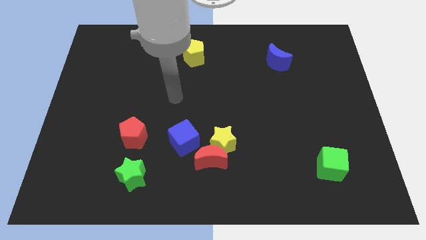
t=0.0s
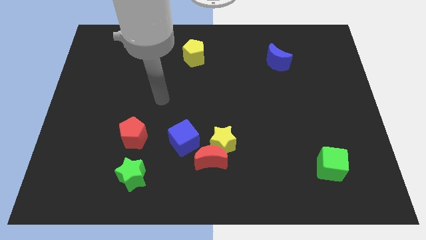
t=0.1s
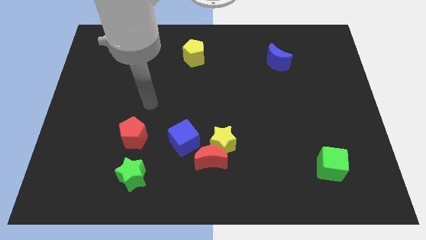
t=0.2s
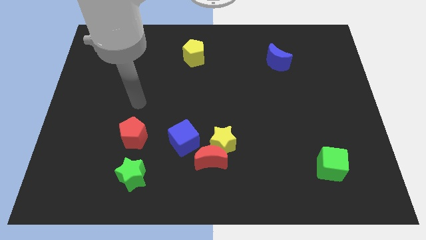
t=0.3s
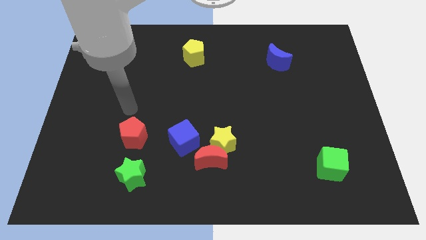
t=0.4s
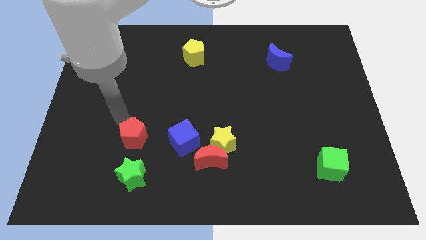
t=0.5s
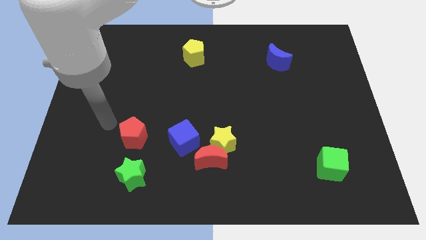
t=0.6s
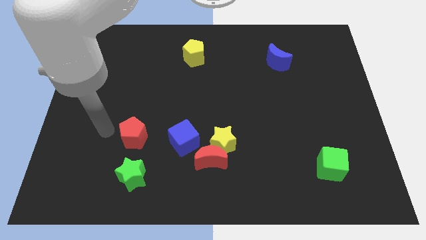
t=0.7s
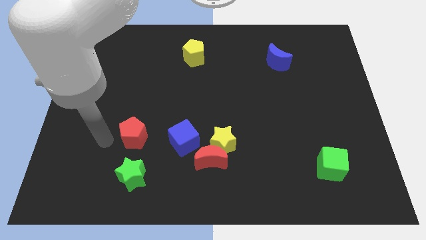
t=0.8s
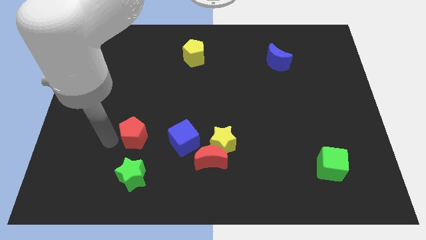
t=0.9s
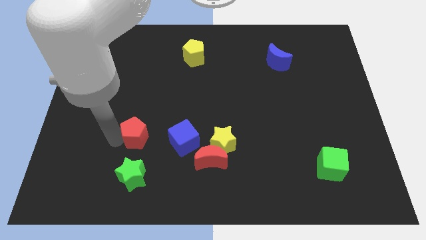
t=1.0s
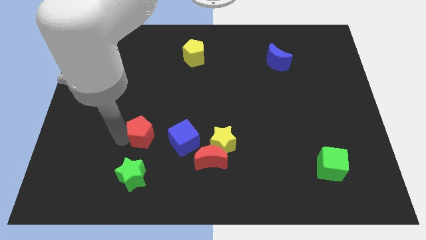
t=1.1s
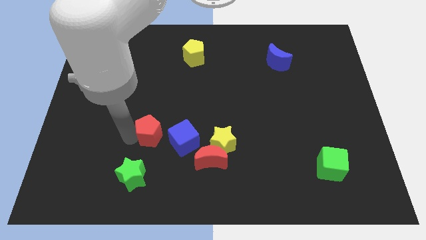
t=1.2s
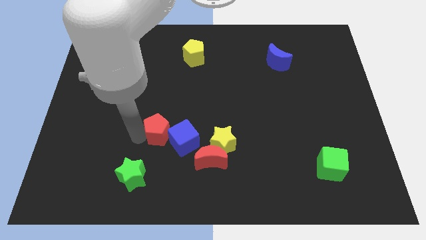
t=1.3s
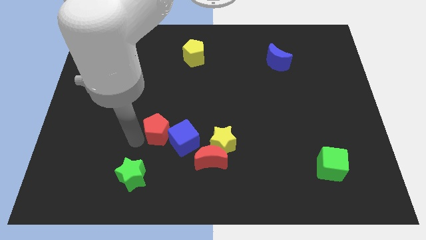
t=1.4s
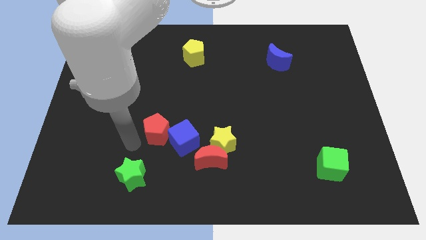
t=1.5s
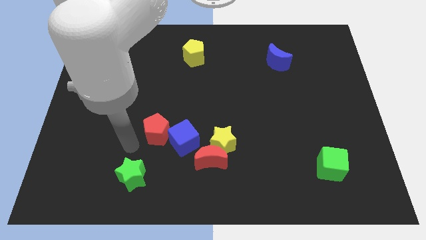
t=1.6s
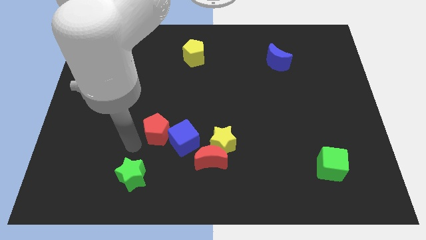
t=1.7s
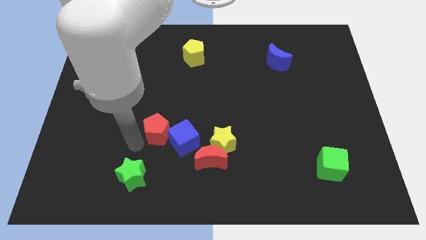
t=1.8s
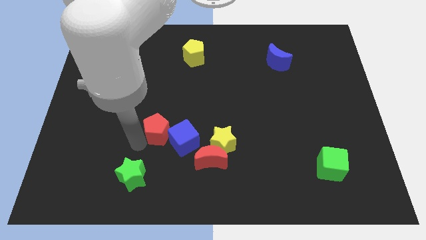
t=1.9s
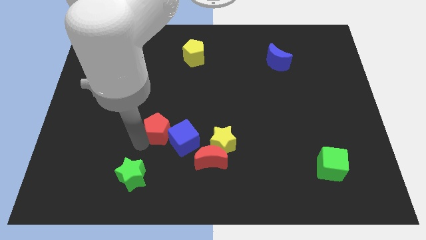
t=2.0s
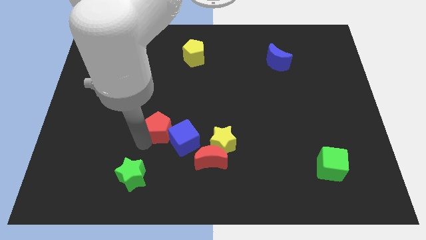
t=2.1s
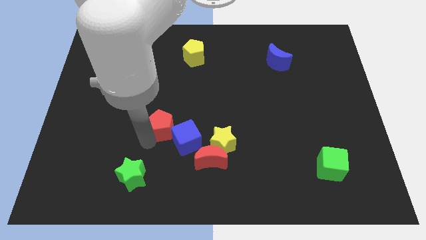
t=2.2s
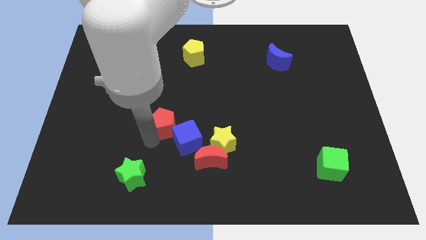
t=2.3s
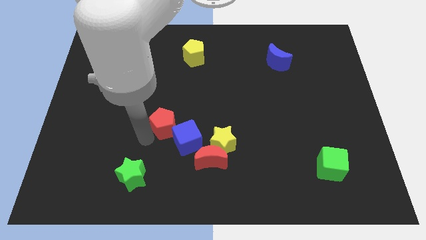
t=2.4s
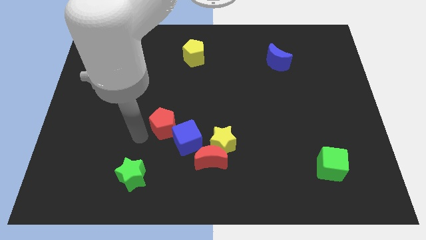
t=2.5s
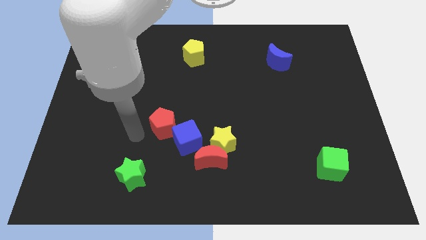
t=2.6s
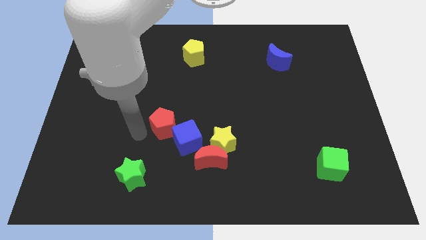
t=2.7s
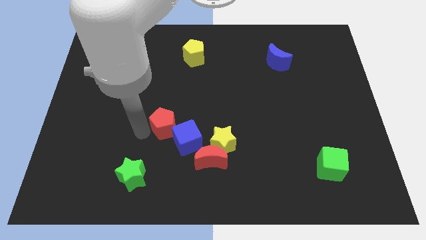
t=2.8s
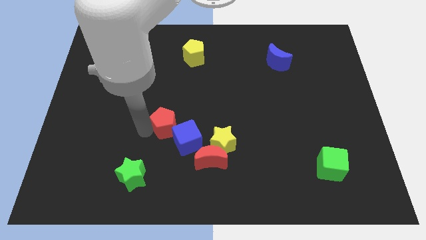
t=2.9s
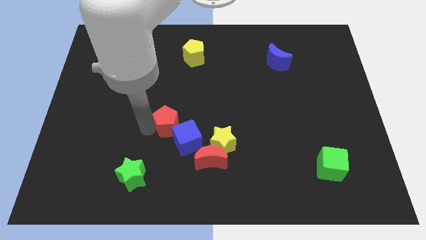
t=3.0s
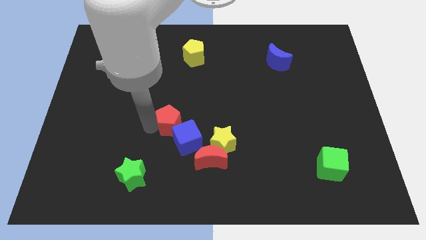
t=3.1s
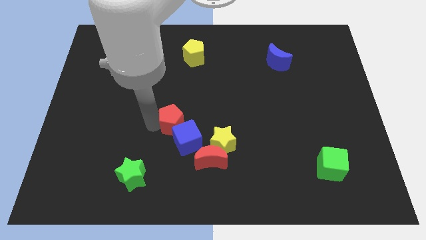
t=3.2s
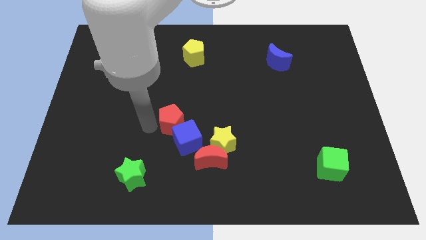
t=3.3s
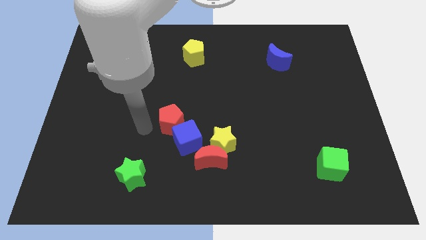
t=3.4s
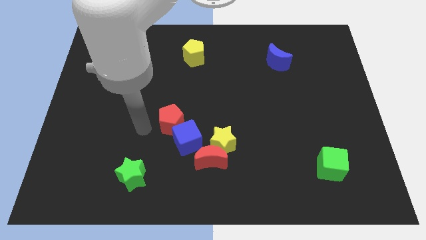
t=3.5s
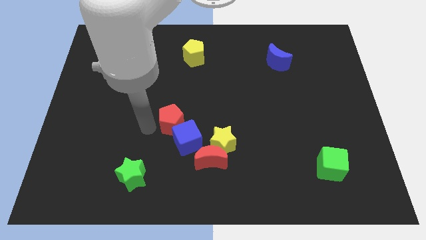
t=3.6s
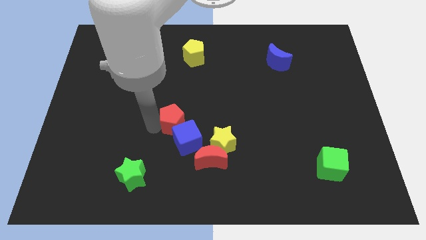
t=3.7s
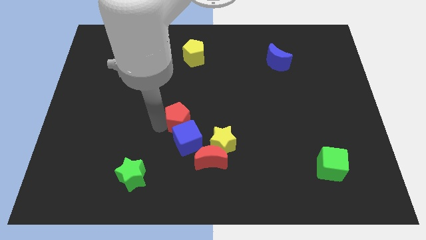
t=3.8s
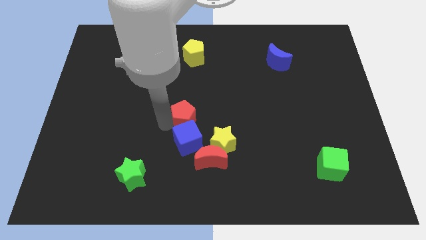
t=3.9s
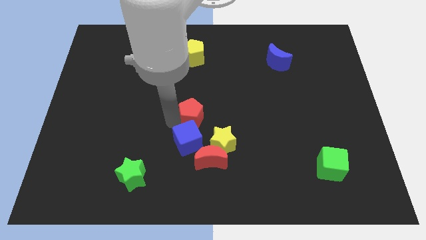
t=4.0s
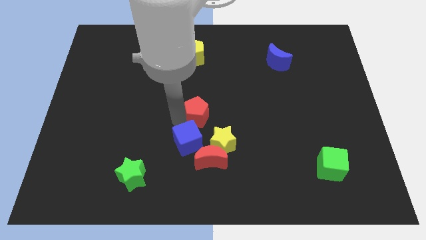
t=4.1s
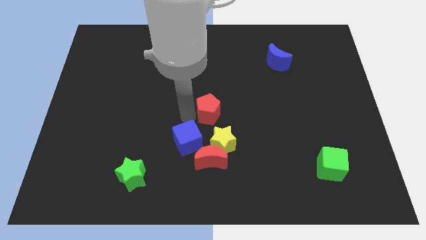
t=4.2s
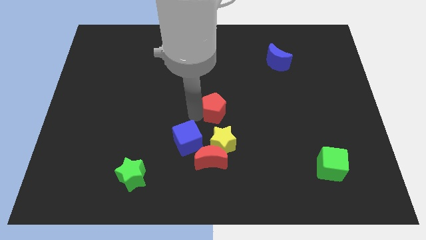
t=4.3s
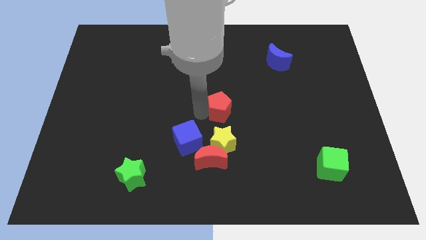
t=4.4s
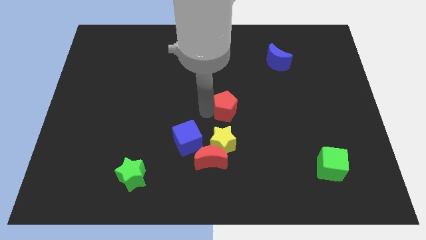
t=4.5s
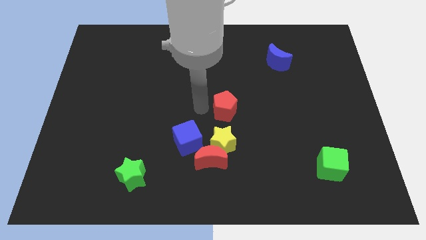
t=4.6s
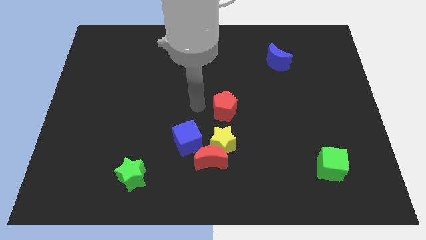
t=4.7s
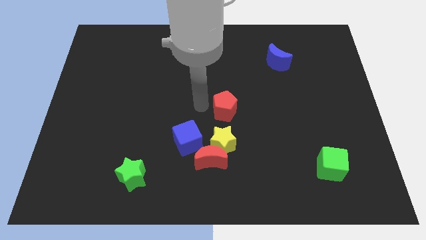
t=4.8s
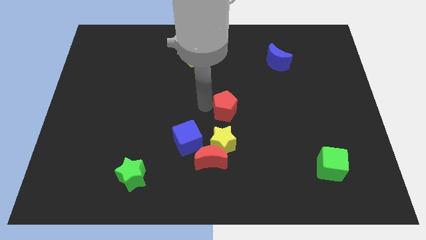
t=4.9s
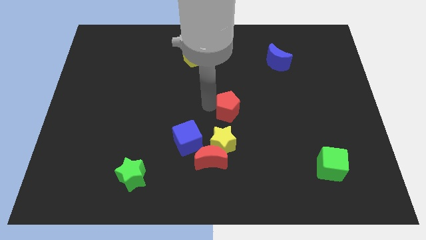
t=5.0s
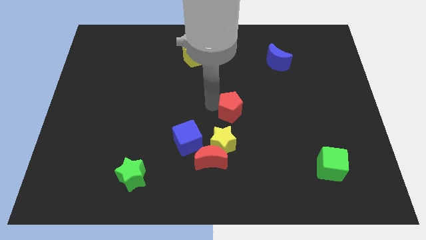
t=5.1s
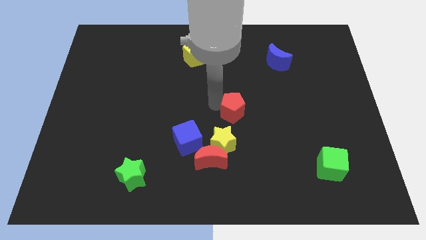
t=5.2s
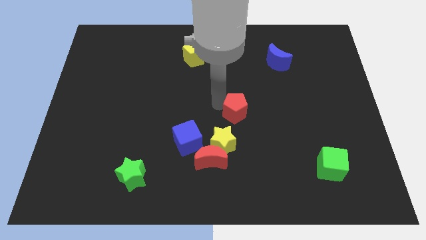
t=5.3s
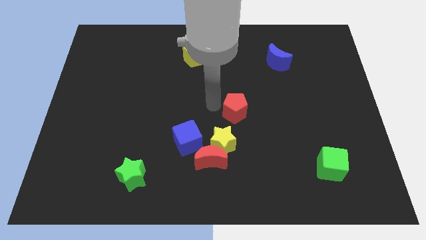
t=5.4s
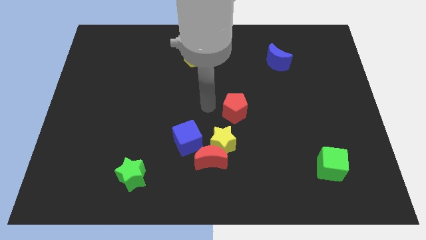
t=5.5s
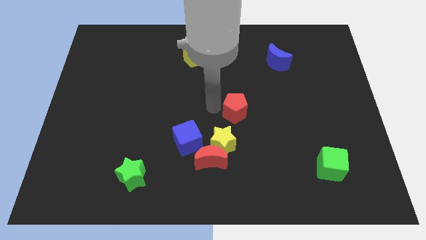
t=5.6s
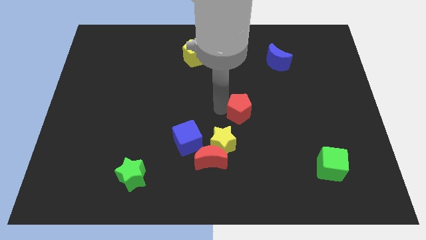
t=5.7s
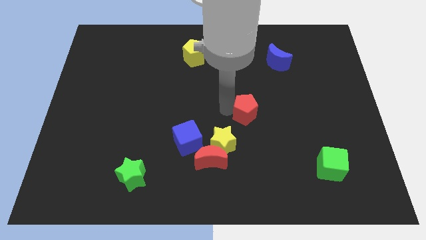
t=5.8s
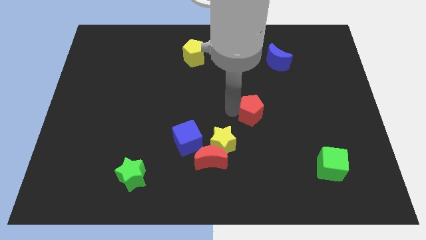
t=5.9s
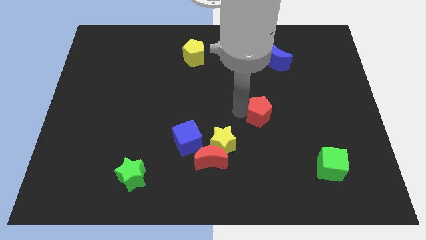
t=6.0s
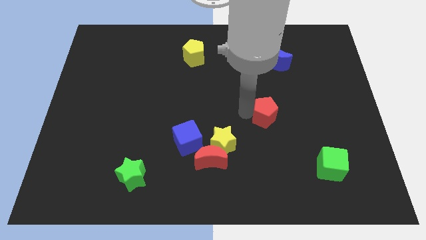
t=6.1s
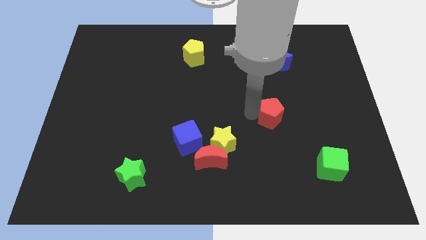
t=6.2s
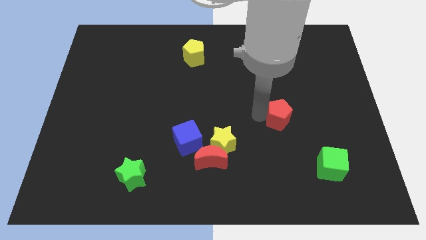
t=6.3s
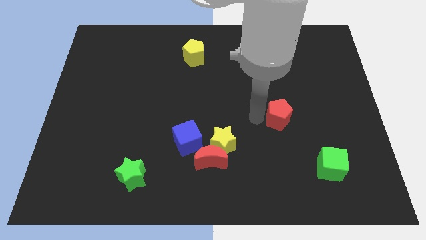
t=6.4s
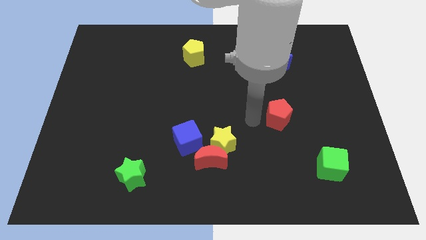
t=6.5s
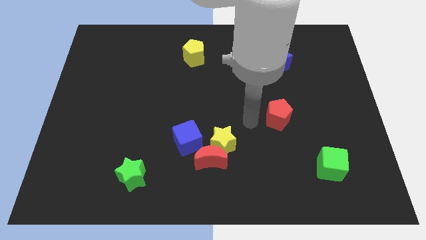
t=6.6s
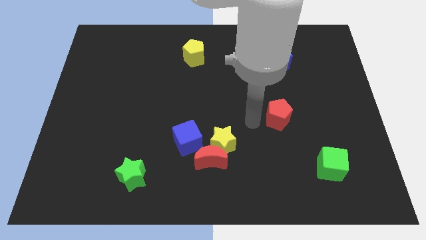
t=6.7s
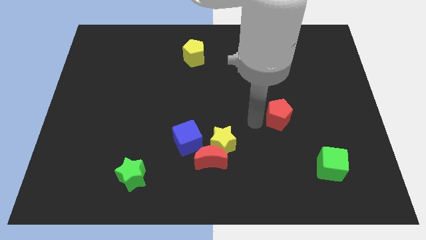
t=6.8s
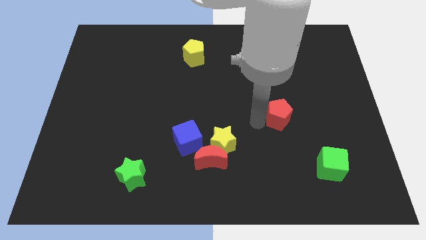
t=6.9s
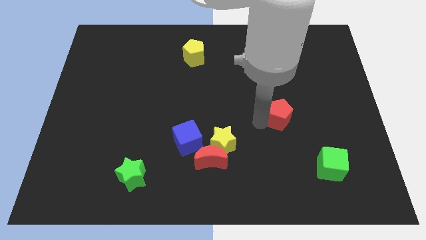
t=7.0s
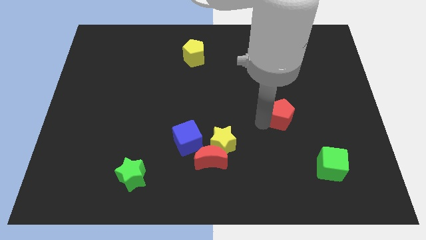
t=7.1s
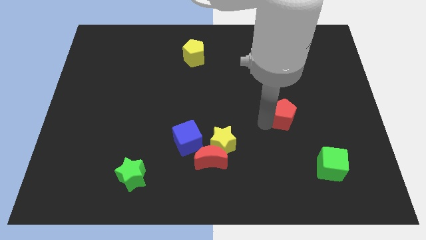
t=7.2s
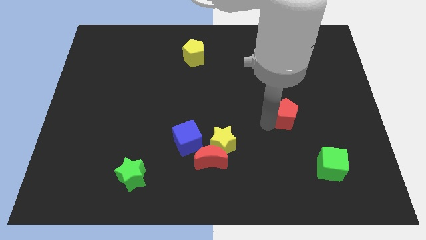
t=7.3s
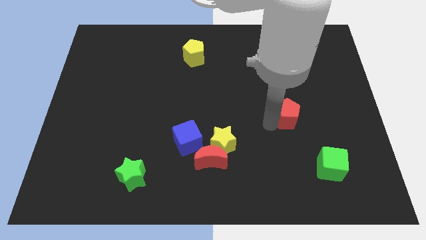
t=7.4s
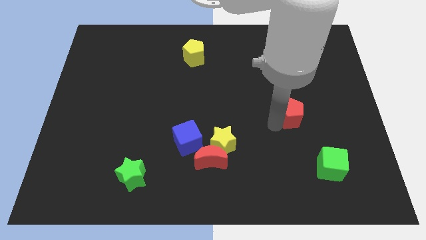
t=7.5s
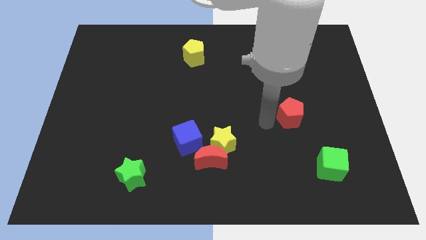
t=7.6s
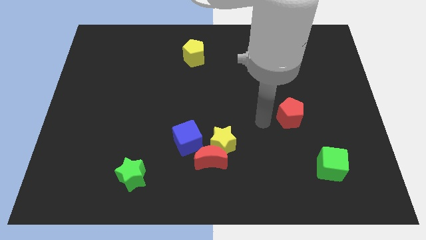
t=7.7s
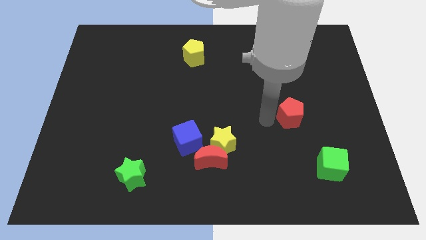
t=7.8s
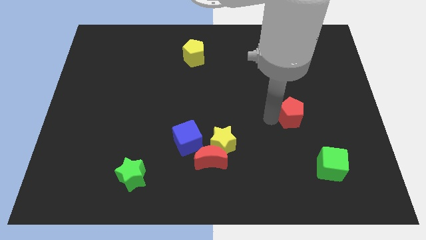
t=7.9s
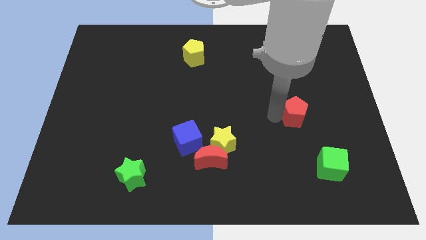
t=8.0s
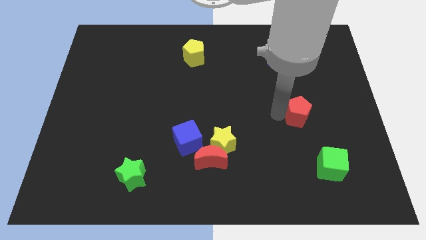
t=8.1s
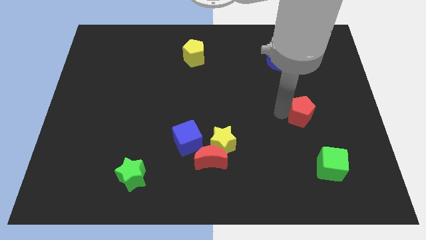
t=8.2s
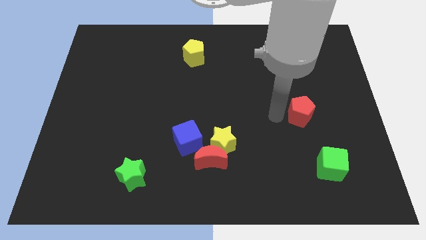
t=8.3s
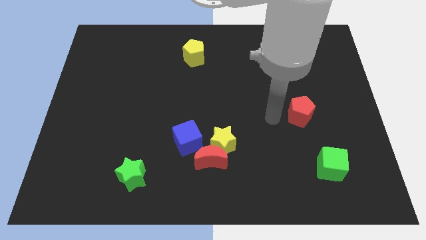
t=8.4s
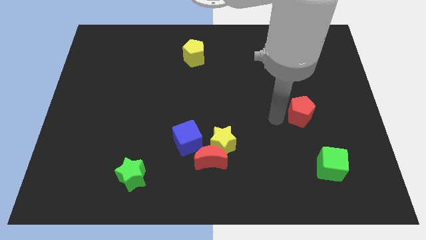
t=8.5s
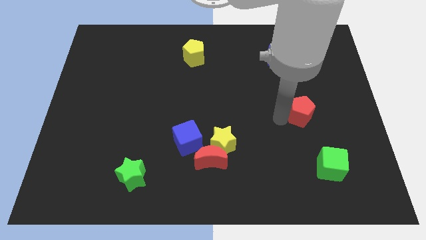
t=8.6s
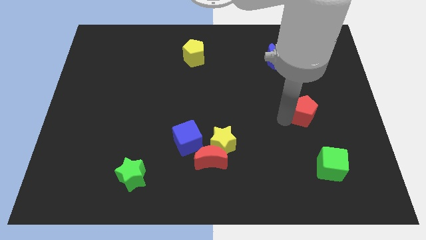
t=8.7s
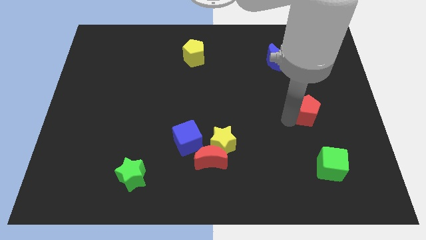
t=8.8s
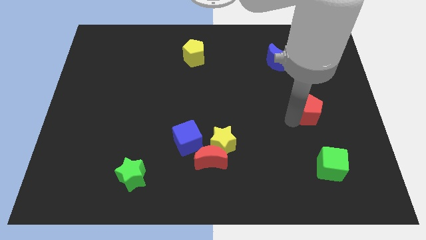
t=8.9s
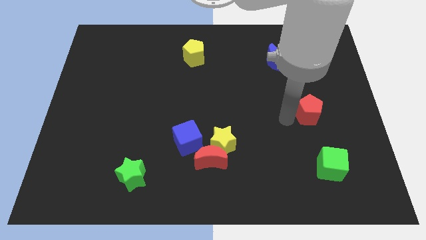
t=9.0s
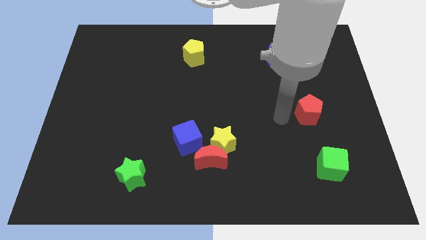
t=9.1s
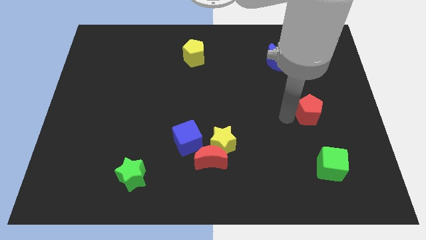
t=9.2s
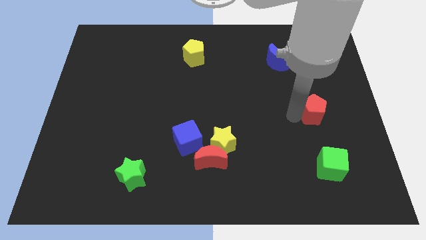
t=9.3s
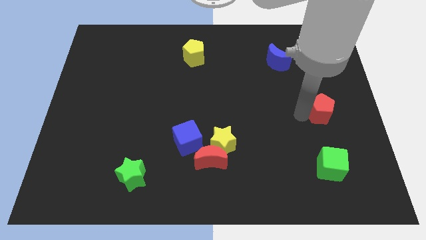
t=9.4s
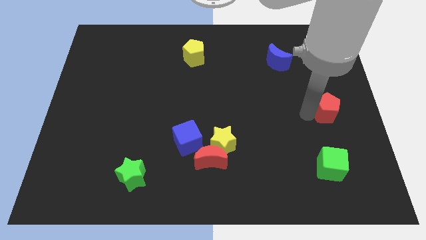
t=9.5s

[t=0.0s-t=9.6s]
put the red pentagon to the center right
